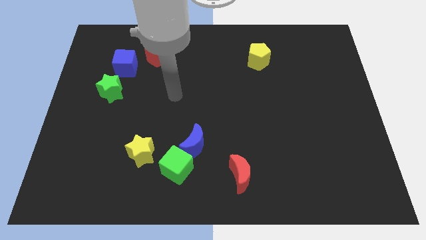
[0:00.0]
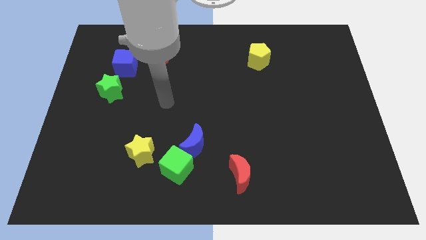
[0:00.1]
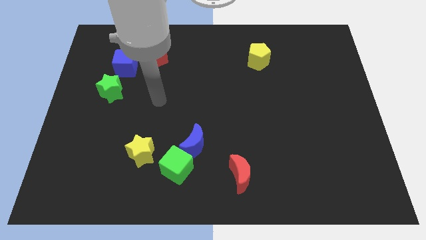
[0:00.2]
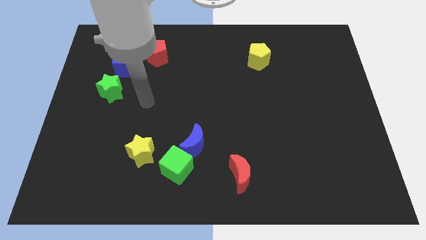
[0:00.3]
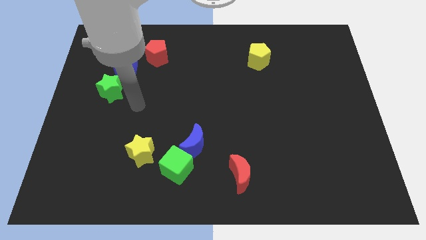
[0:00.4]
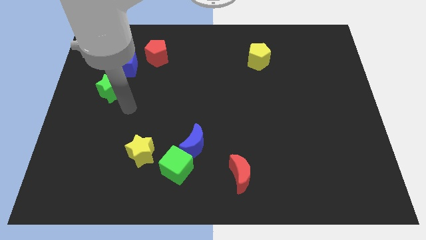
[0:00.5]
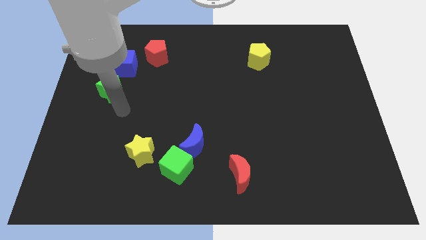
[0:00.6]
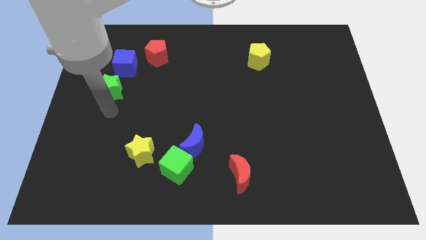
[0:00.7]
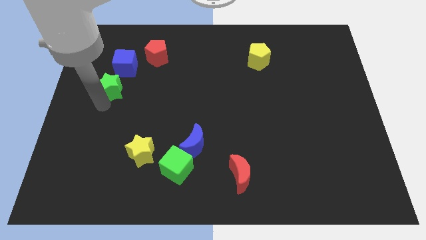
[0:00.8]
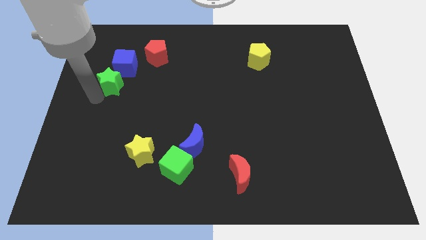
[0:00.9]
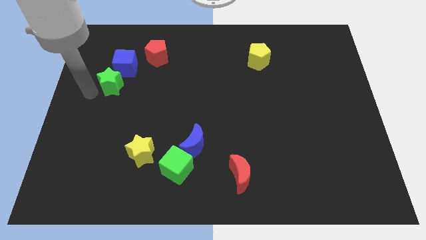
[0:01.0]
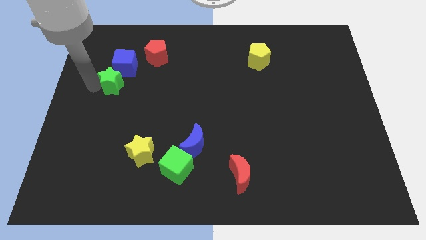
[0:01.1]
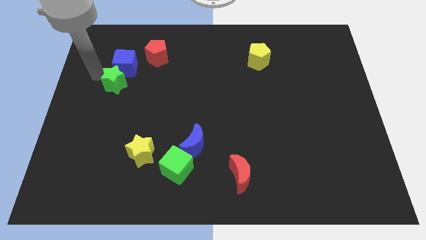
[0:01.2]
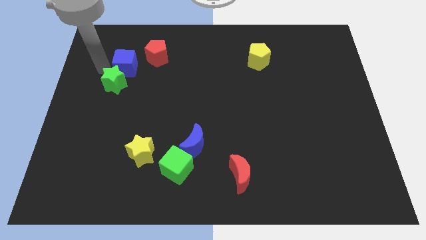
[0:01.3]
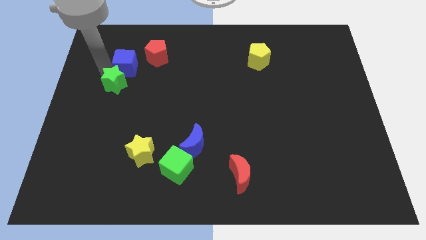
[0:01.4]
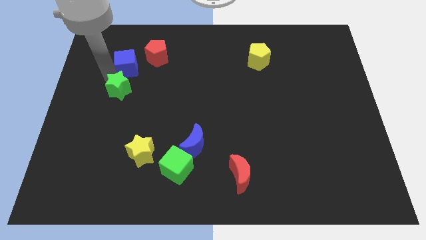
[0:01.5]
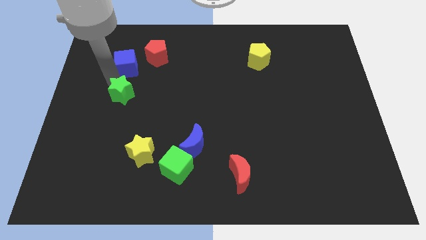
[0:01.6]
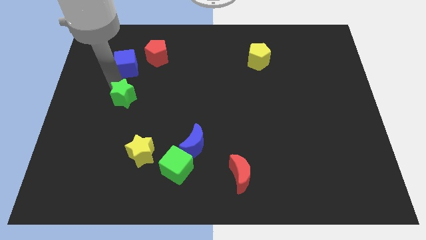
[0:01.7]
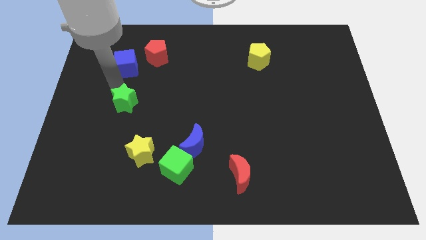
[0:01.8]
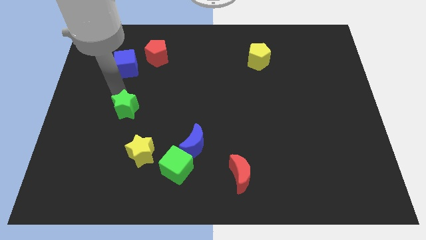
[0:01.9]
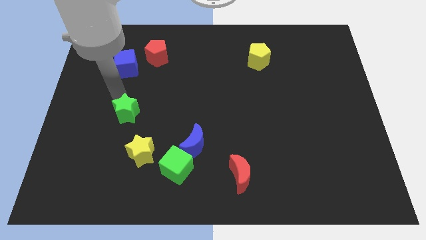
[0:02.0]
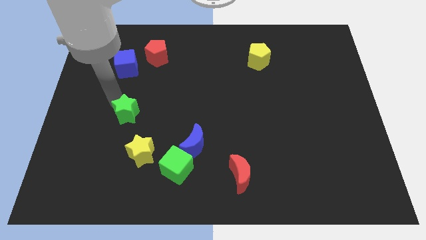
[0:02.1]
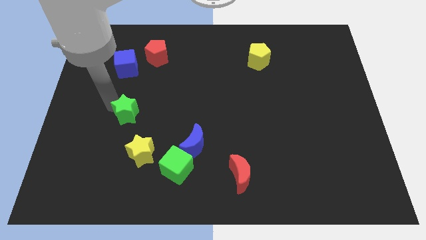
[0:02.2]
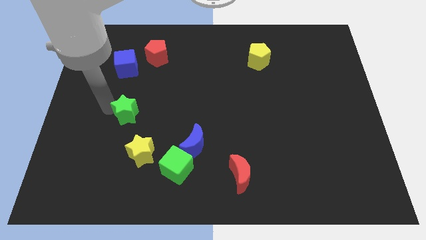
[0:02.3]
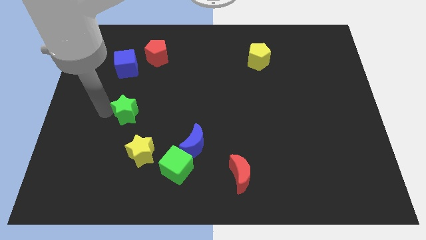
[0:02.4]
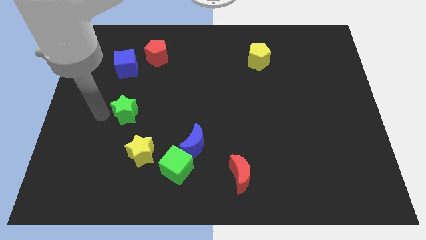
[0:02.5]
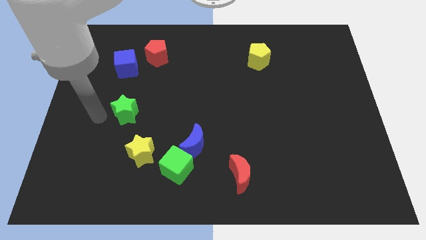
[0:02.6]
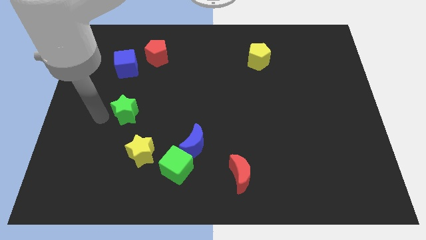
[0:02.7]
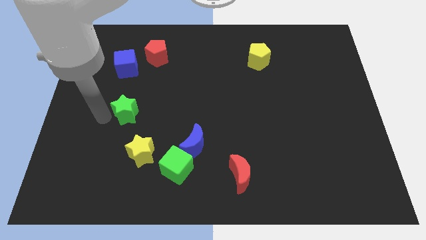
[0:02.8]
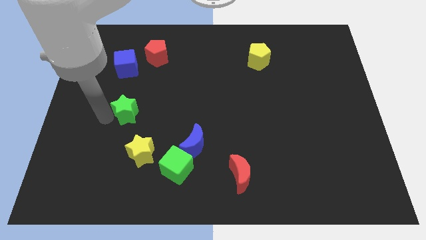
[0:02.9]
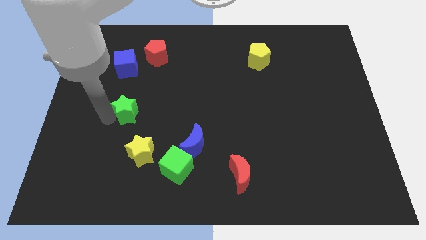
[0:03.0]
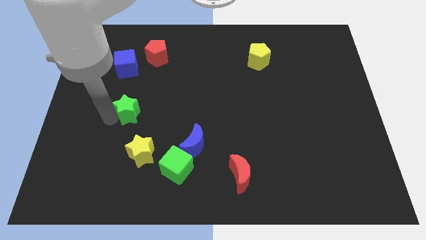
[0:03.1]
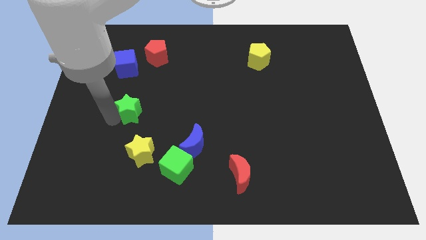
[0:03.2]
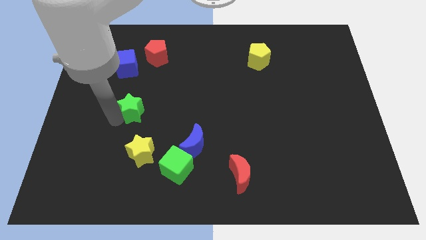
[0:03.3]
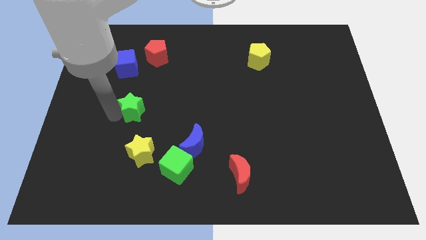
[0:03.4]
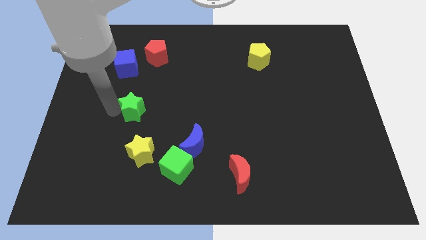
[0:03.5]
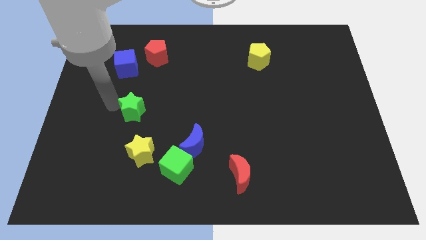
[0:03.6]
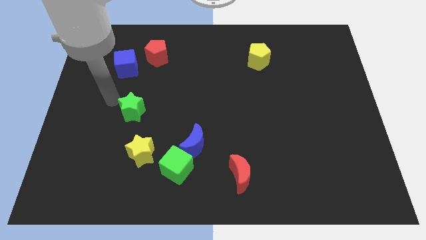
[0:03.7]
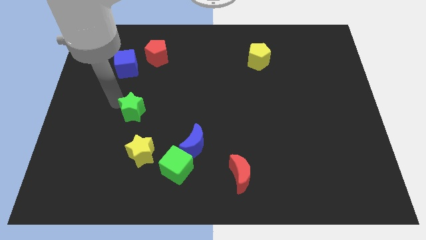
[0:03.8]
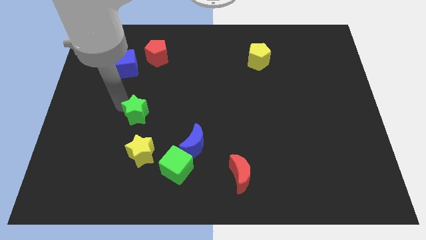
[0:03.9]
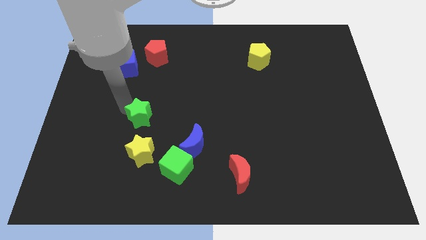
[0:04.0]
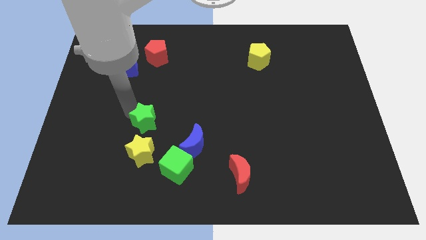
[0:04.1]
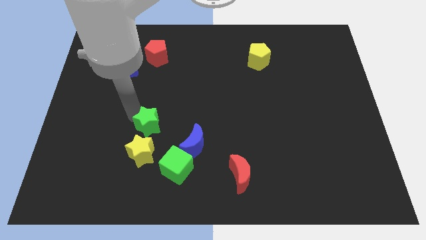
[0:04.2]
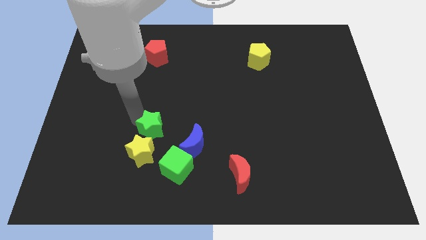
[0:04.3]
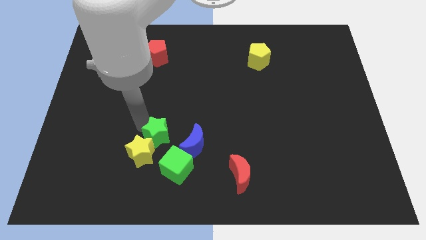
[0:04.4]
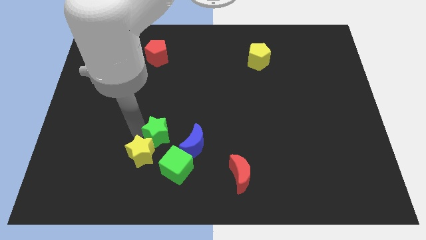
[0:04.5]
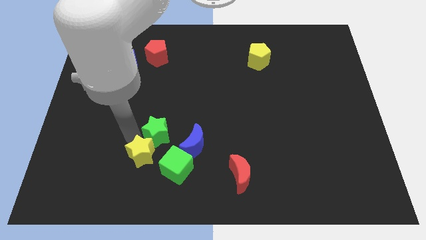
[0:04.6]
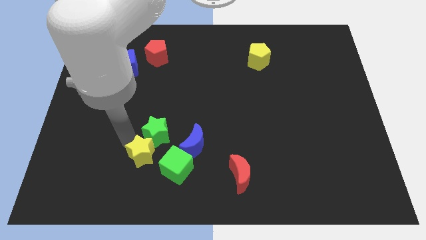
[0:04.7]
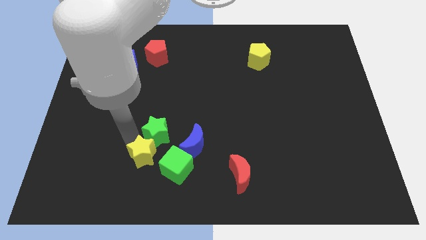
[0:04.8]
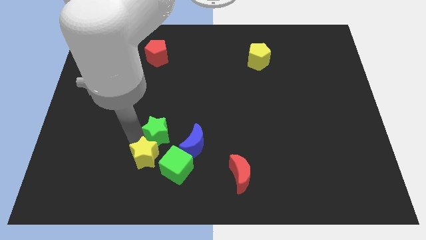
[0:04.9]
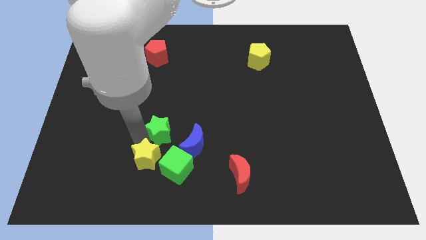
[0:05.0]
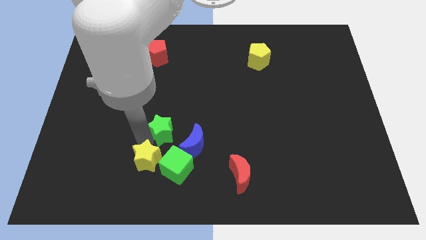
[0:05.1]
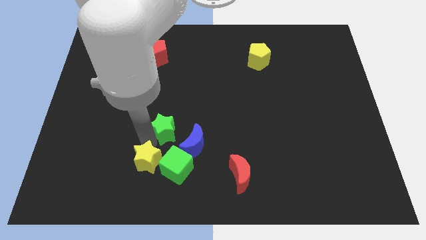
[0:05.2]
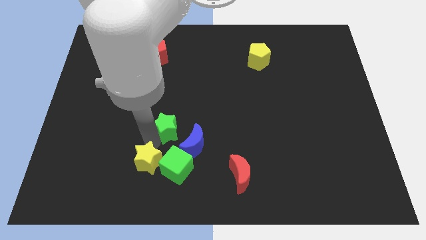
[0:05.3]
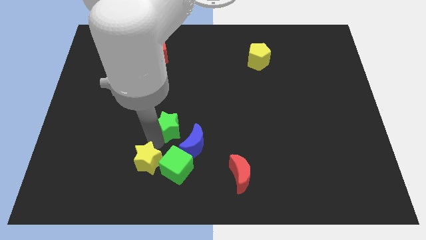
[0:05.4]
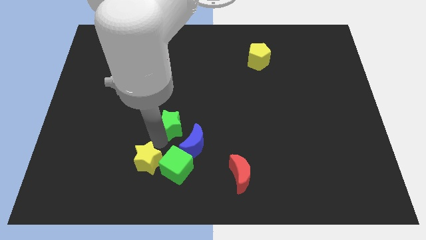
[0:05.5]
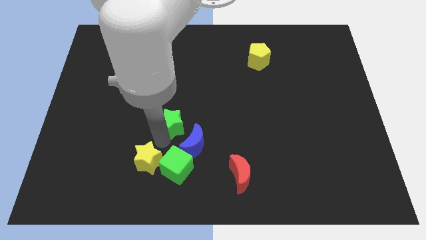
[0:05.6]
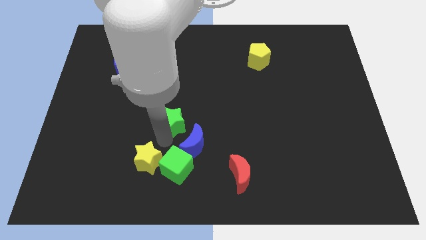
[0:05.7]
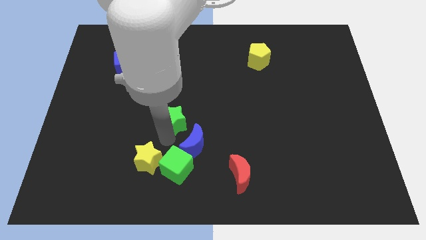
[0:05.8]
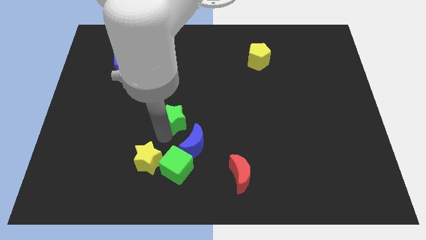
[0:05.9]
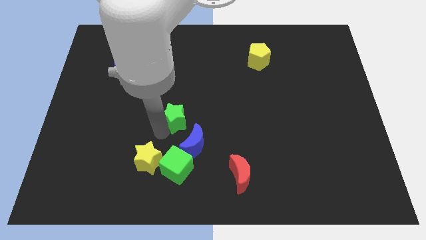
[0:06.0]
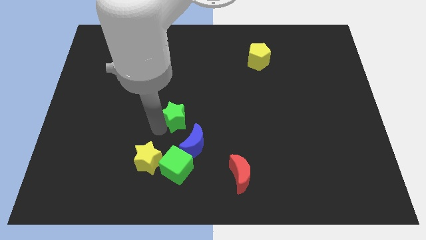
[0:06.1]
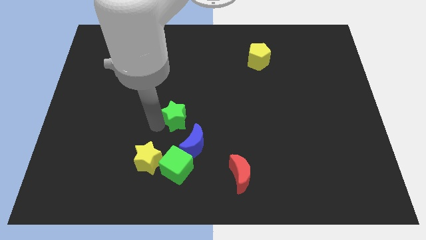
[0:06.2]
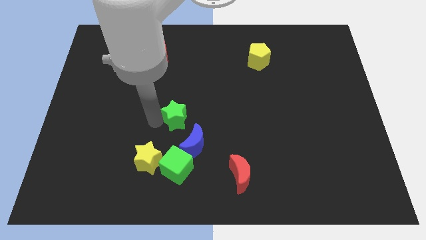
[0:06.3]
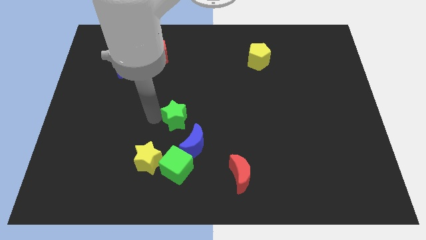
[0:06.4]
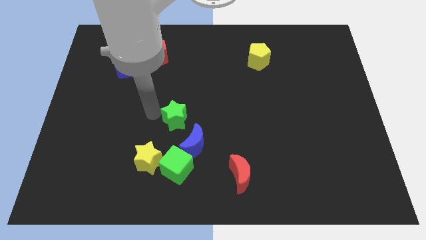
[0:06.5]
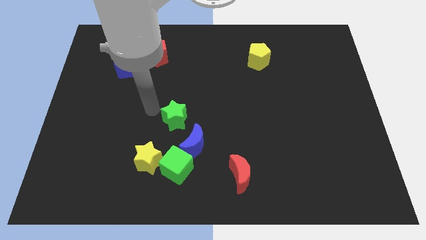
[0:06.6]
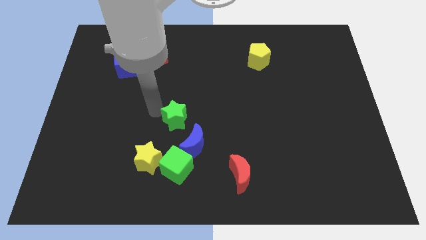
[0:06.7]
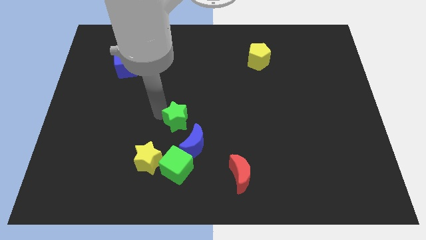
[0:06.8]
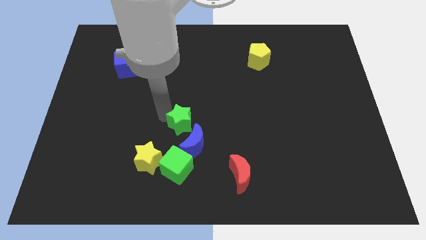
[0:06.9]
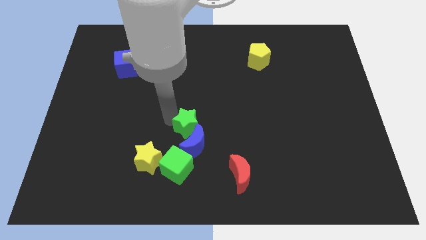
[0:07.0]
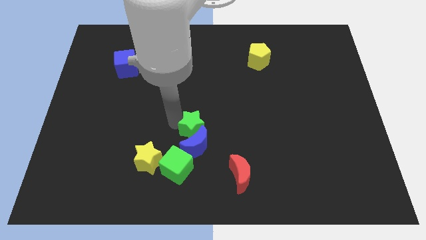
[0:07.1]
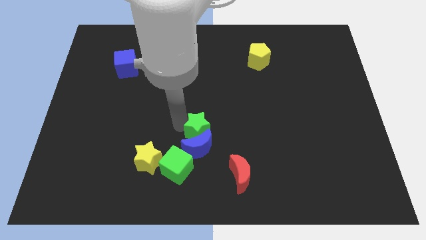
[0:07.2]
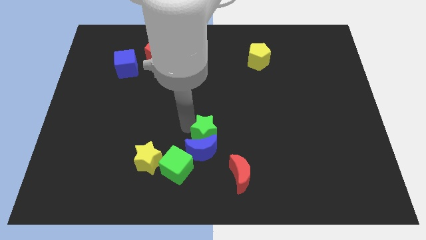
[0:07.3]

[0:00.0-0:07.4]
slide the green star to the top left side of the red moon

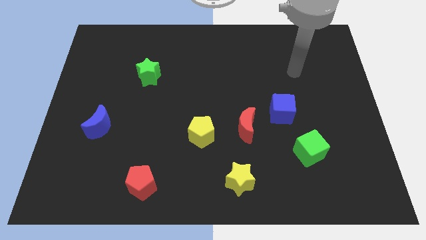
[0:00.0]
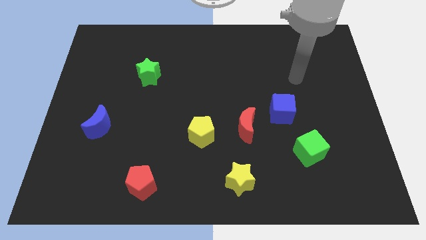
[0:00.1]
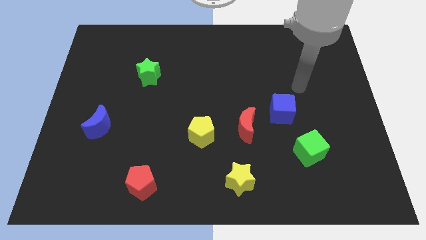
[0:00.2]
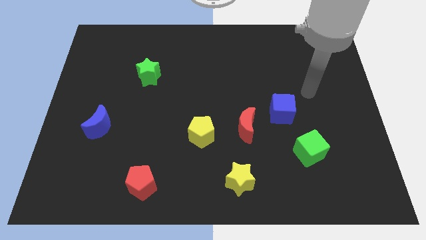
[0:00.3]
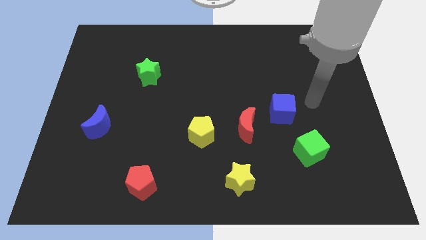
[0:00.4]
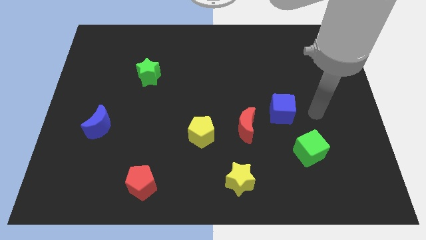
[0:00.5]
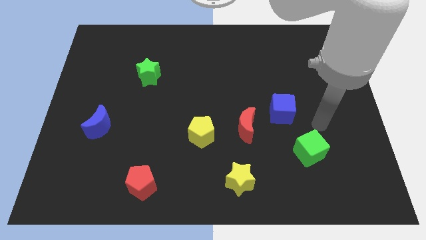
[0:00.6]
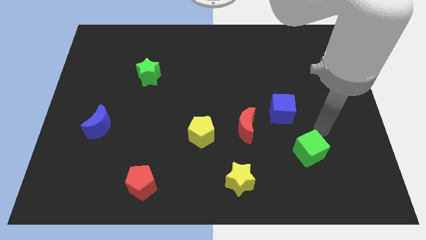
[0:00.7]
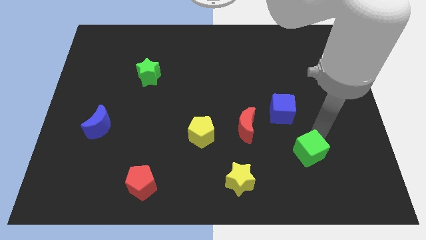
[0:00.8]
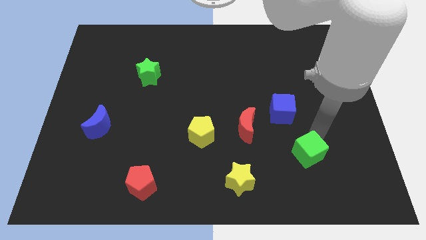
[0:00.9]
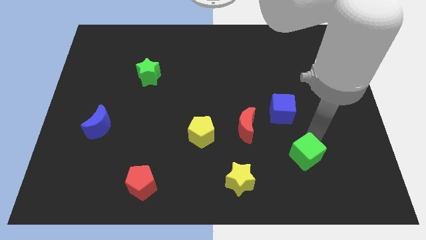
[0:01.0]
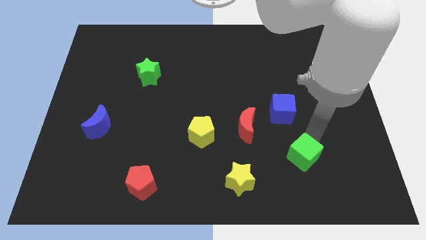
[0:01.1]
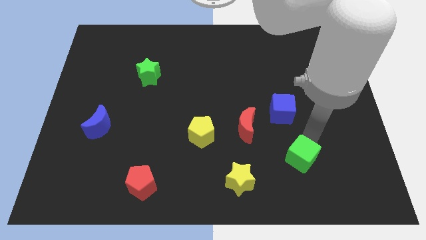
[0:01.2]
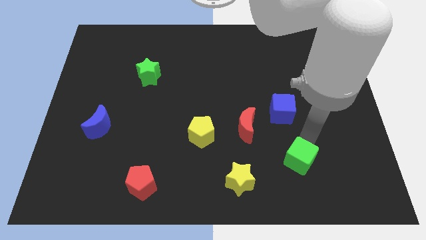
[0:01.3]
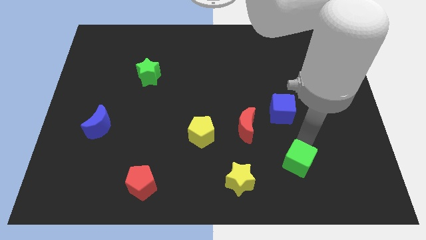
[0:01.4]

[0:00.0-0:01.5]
push the green cube right of the yellow star
